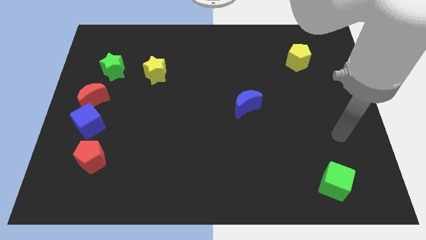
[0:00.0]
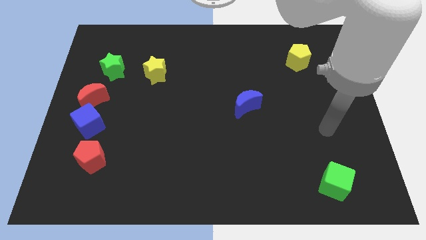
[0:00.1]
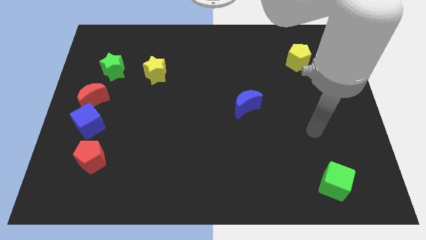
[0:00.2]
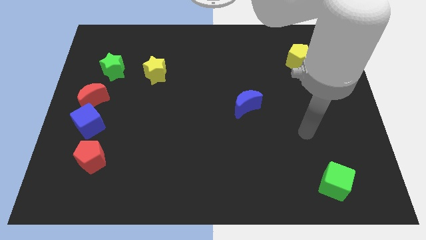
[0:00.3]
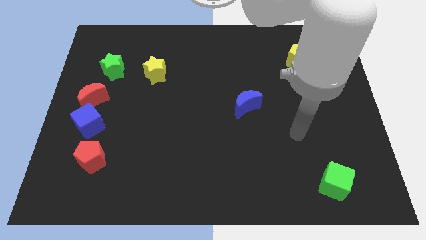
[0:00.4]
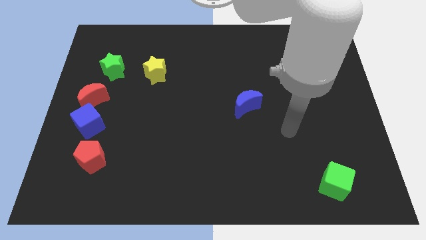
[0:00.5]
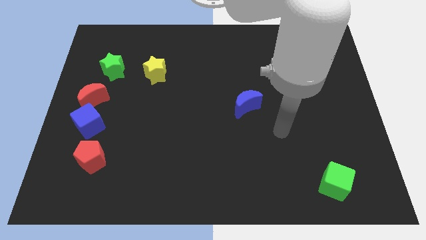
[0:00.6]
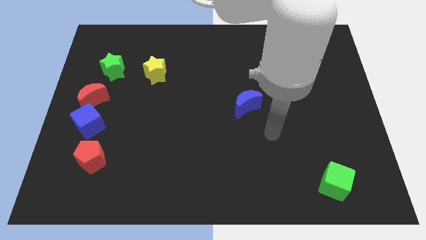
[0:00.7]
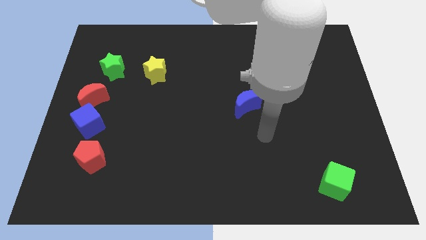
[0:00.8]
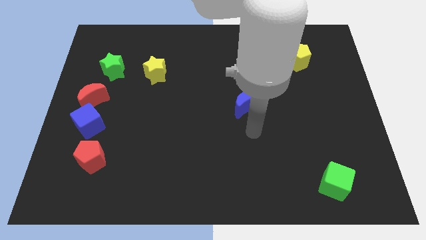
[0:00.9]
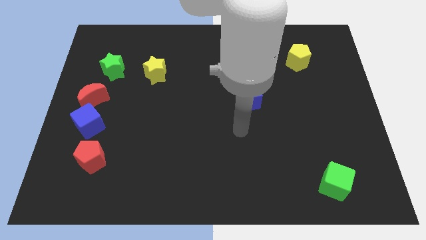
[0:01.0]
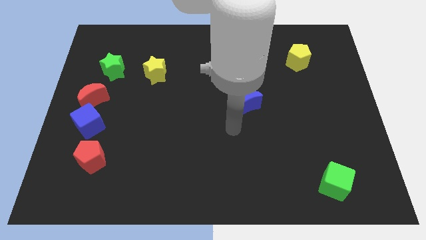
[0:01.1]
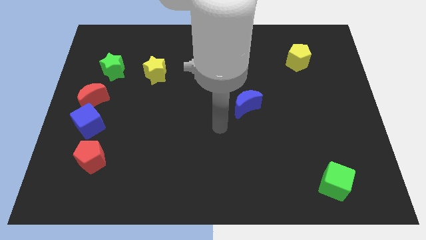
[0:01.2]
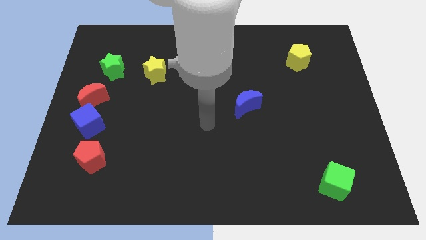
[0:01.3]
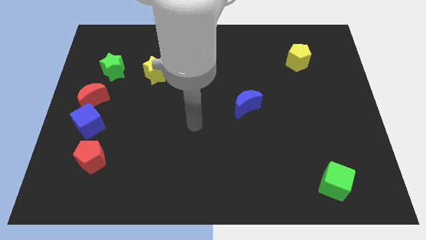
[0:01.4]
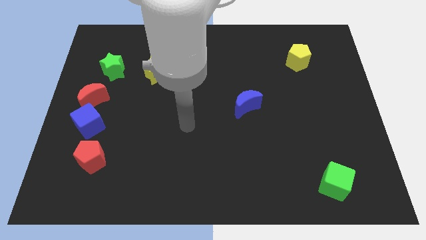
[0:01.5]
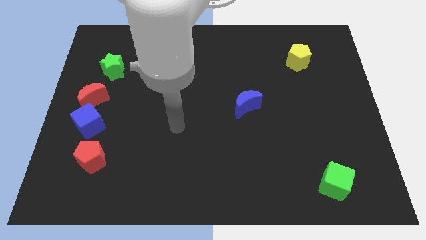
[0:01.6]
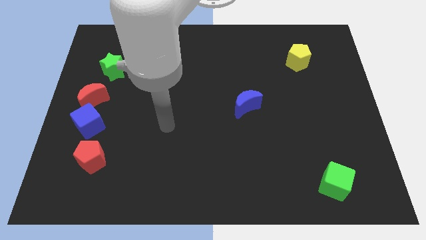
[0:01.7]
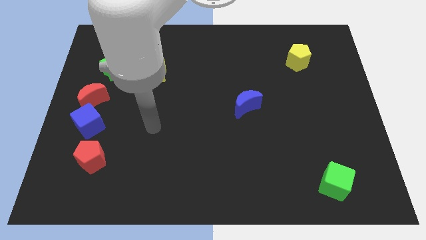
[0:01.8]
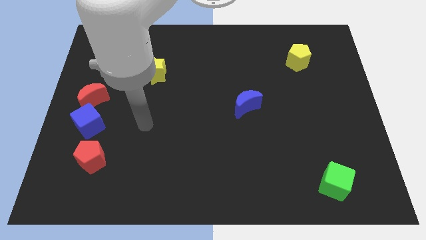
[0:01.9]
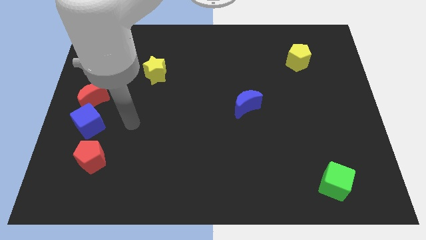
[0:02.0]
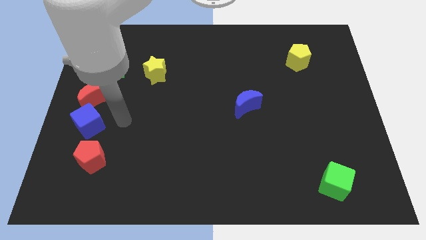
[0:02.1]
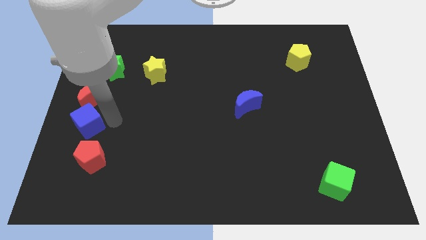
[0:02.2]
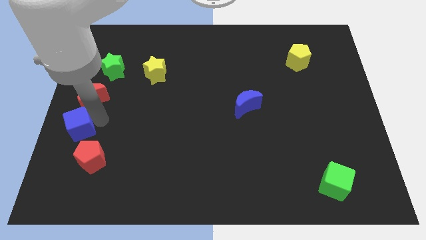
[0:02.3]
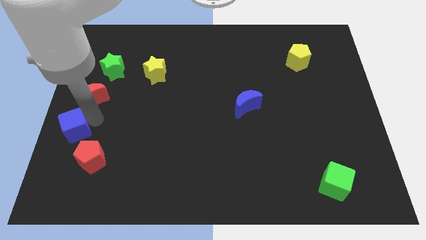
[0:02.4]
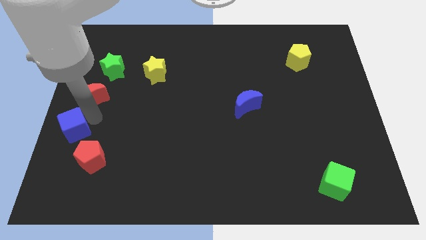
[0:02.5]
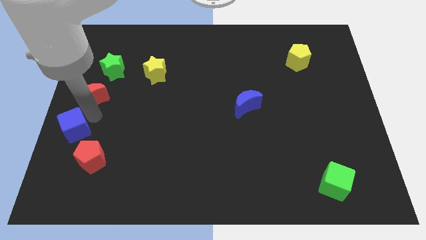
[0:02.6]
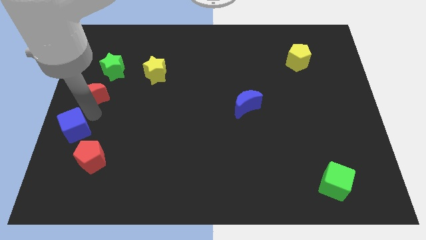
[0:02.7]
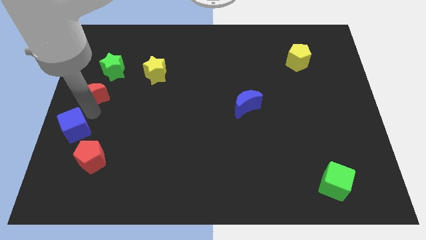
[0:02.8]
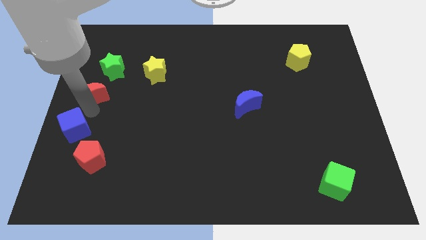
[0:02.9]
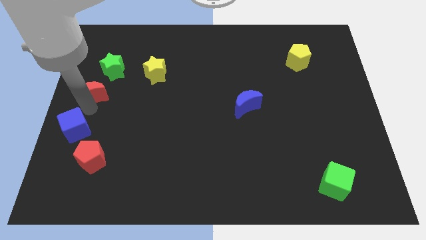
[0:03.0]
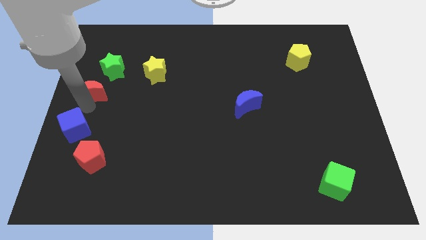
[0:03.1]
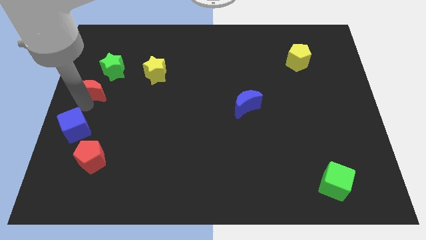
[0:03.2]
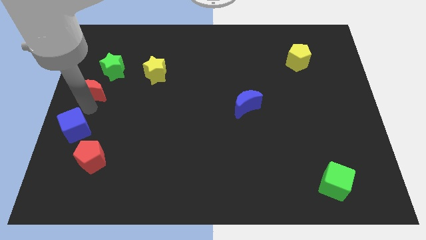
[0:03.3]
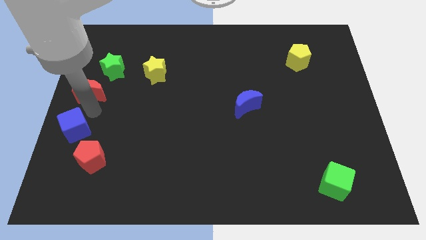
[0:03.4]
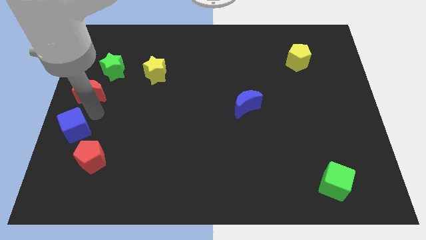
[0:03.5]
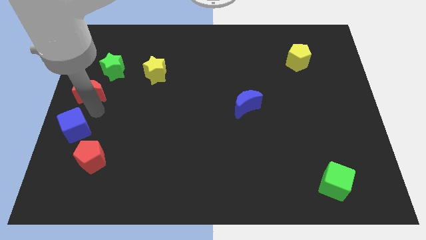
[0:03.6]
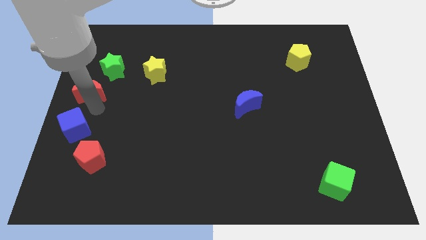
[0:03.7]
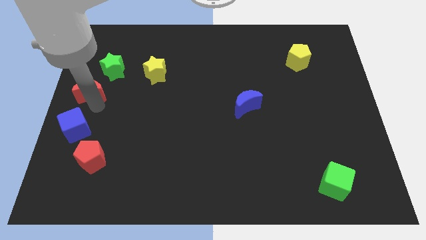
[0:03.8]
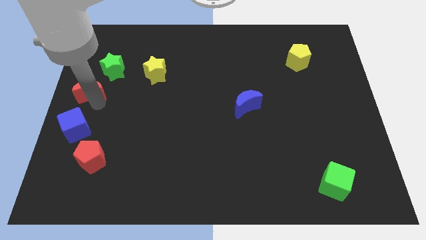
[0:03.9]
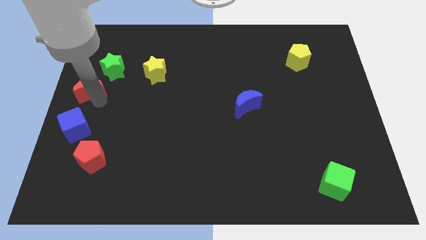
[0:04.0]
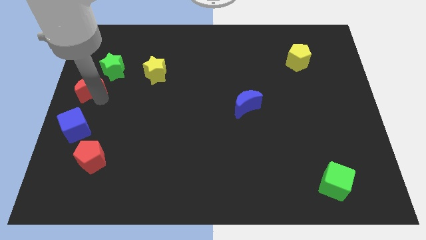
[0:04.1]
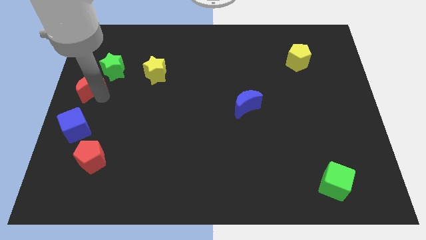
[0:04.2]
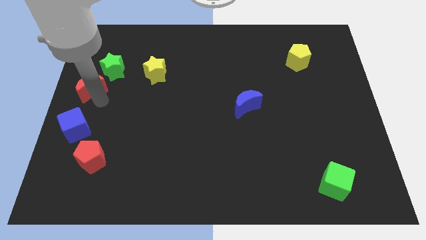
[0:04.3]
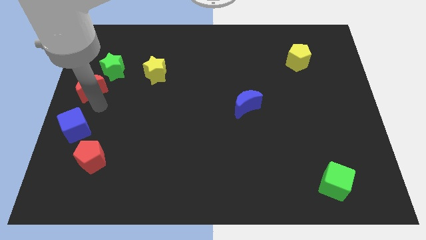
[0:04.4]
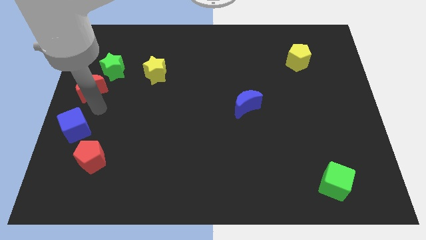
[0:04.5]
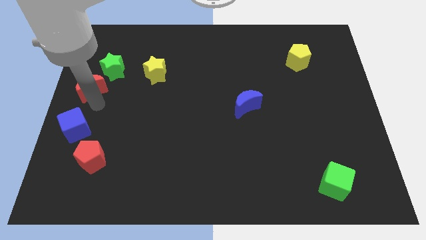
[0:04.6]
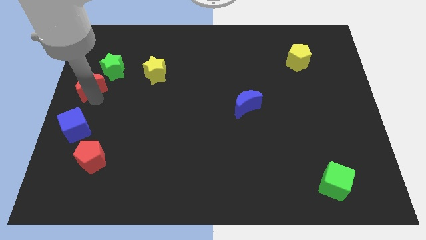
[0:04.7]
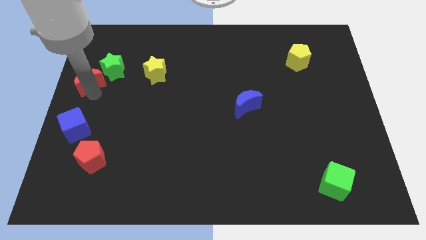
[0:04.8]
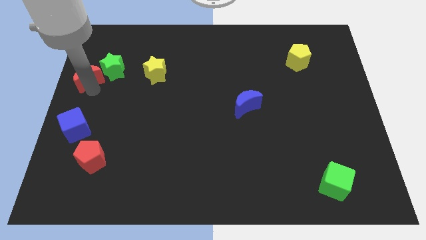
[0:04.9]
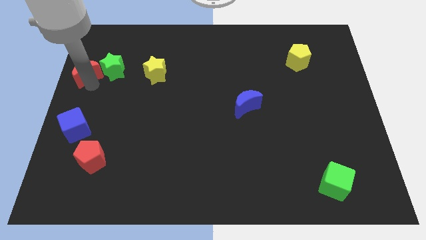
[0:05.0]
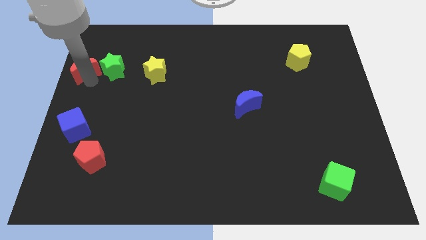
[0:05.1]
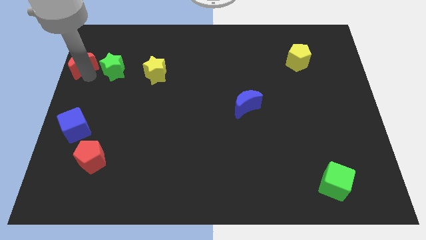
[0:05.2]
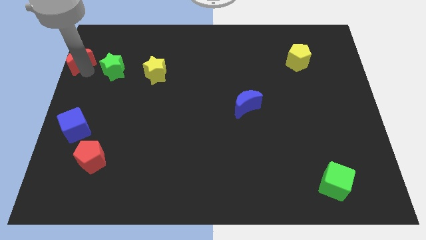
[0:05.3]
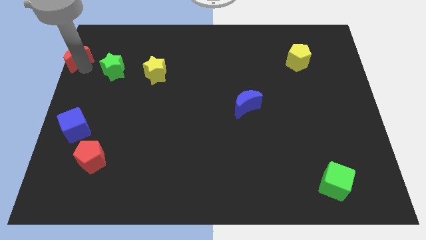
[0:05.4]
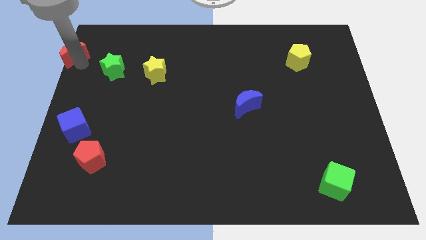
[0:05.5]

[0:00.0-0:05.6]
slide the red moon to the top left

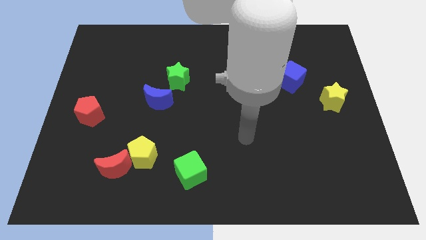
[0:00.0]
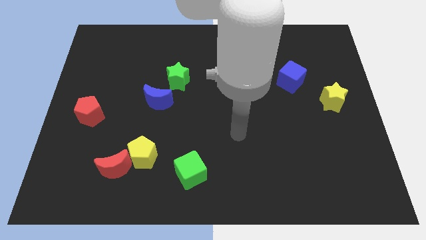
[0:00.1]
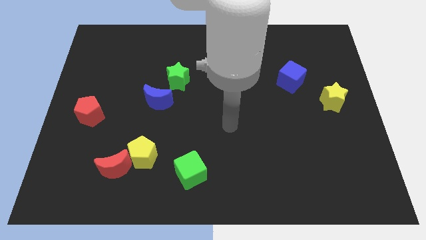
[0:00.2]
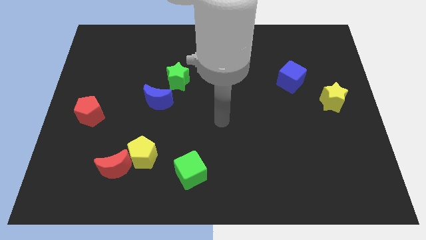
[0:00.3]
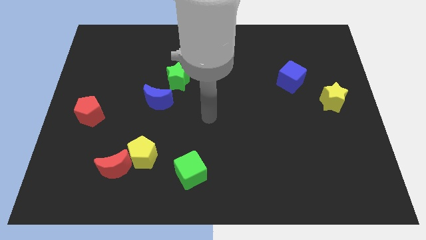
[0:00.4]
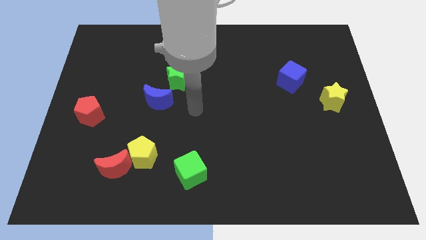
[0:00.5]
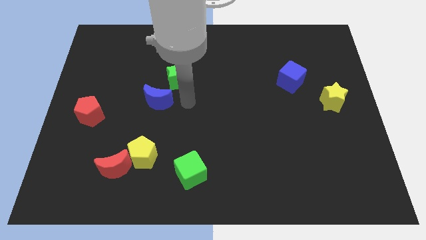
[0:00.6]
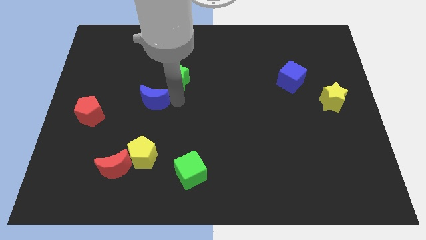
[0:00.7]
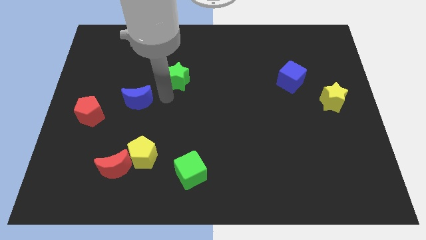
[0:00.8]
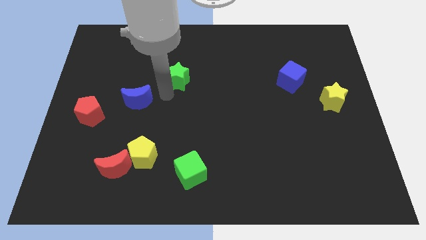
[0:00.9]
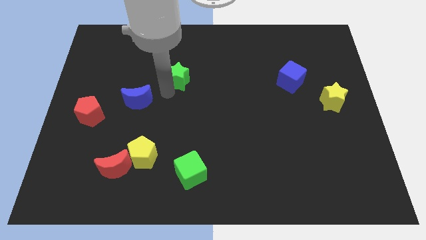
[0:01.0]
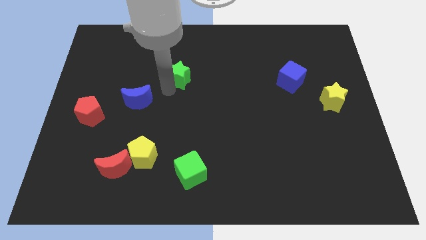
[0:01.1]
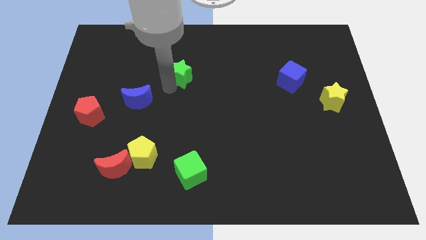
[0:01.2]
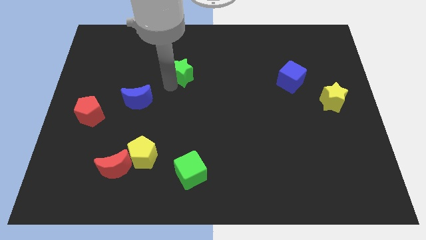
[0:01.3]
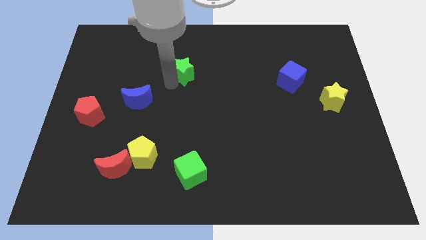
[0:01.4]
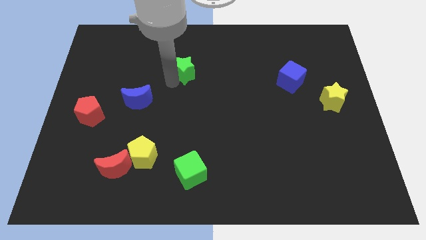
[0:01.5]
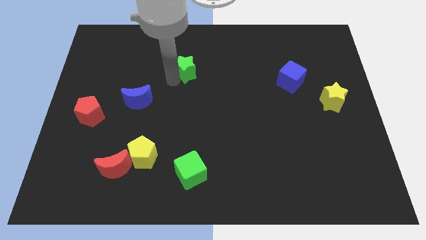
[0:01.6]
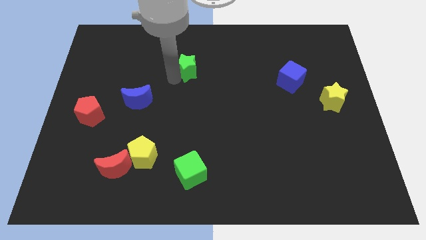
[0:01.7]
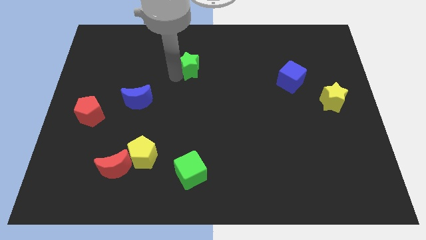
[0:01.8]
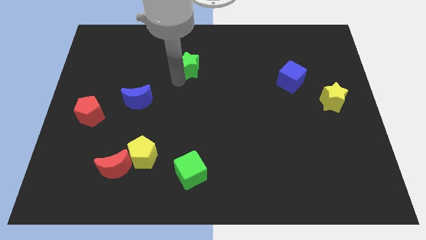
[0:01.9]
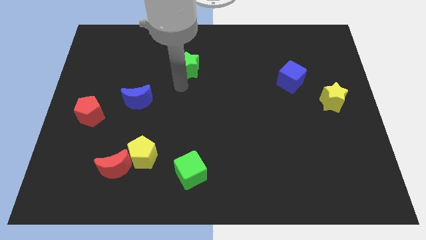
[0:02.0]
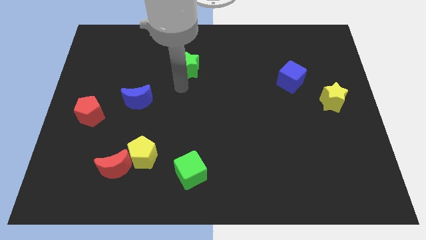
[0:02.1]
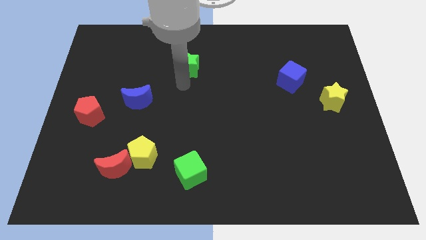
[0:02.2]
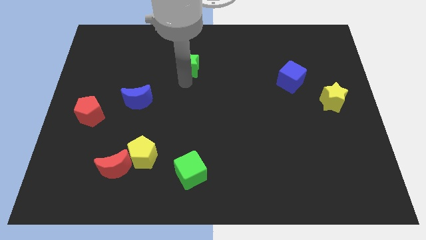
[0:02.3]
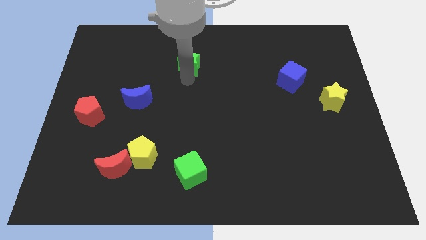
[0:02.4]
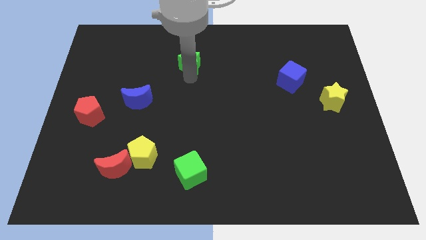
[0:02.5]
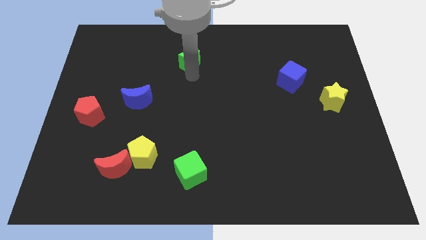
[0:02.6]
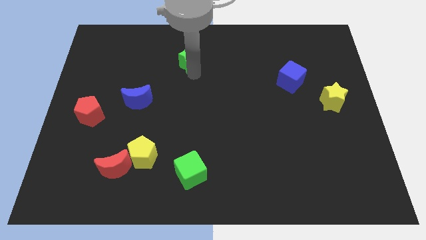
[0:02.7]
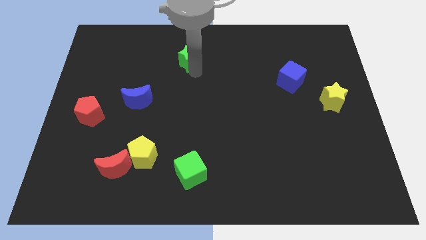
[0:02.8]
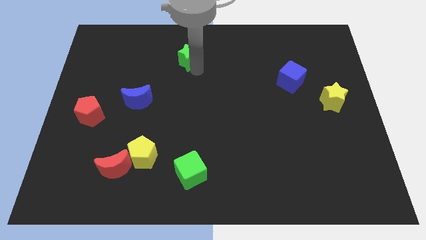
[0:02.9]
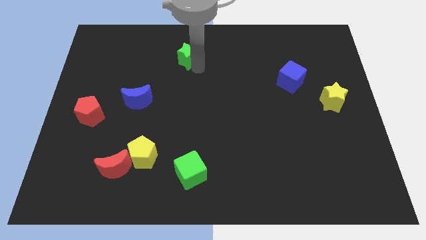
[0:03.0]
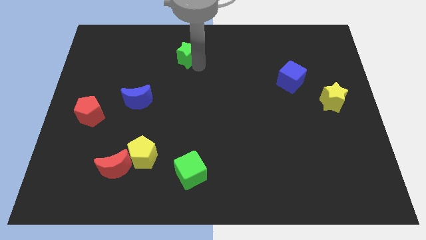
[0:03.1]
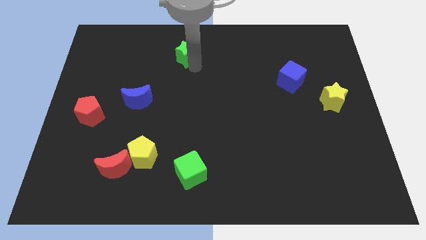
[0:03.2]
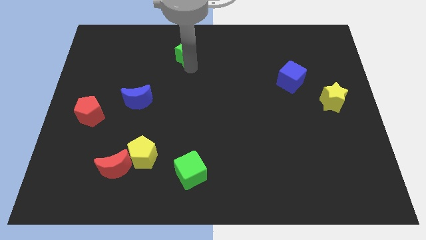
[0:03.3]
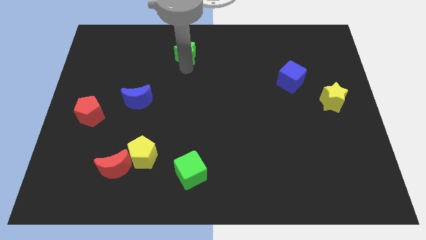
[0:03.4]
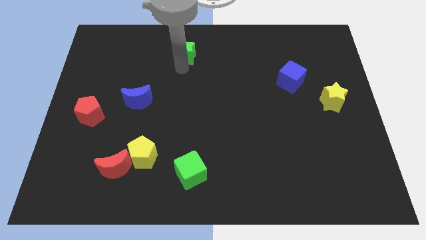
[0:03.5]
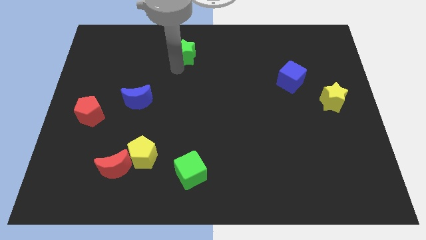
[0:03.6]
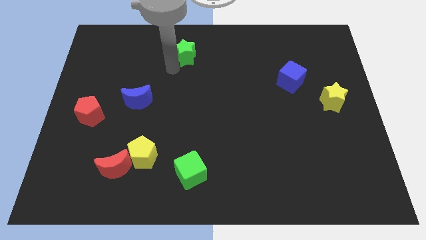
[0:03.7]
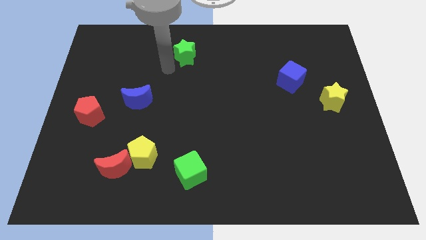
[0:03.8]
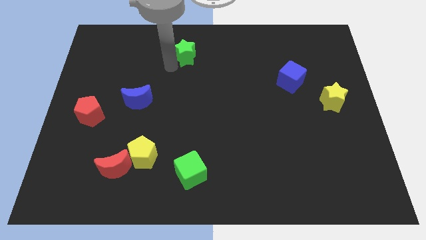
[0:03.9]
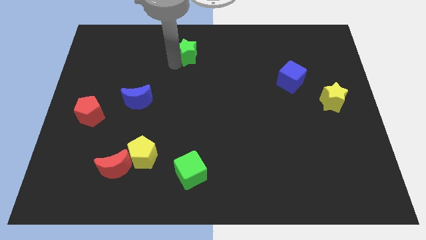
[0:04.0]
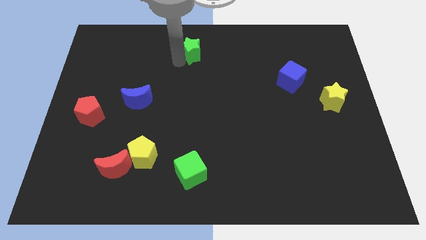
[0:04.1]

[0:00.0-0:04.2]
put the green star to the top
